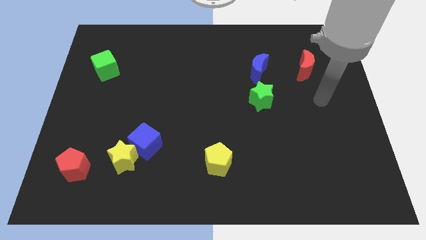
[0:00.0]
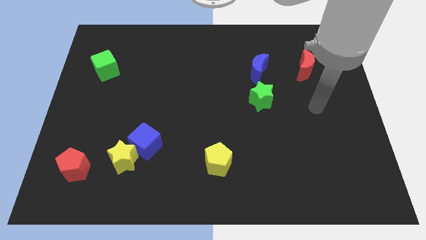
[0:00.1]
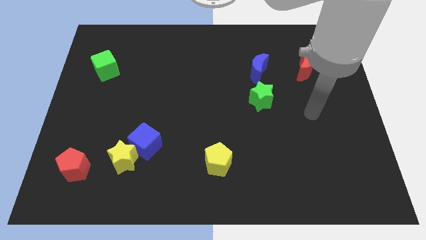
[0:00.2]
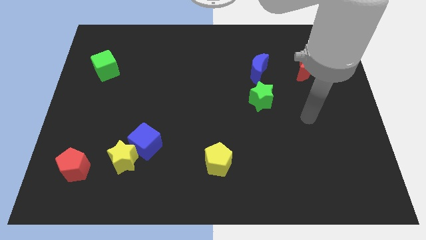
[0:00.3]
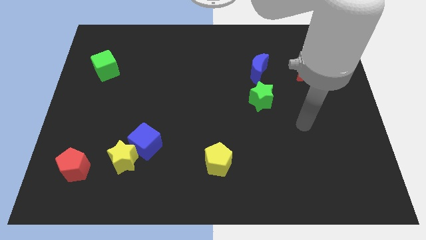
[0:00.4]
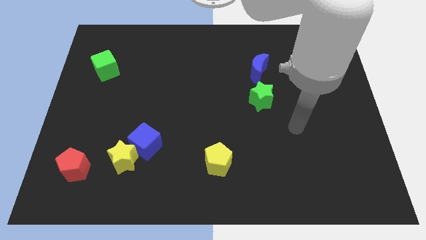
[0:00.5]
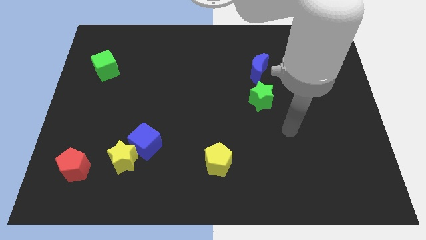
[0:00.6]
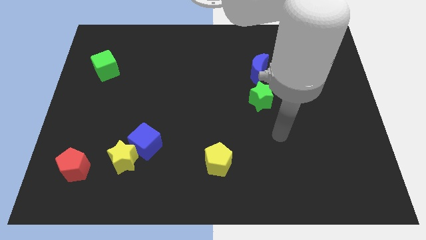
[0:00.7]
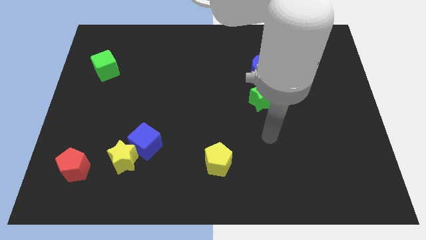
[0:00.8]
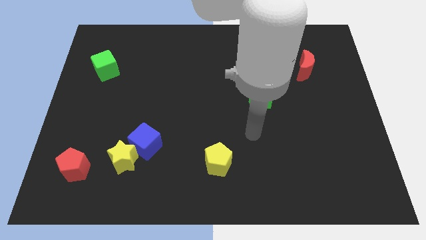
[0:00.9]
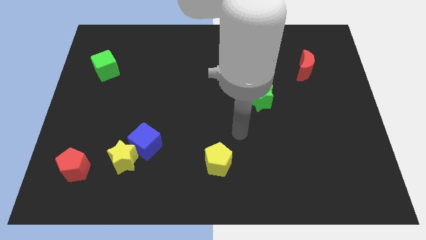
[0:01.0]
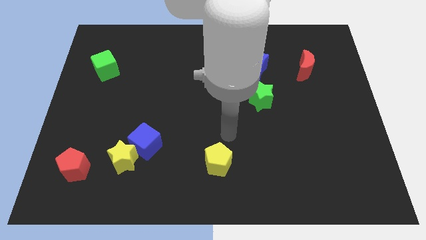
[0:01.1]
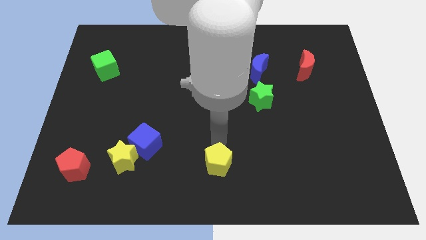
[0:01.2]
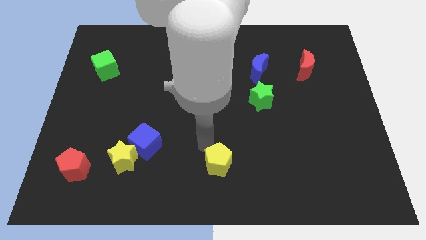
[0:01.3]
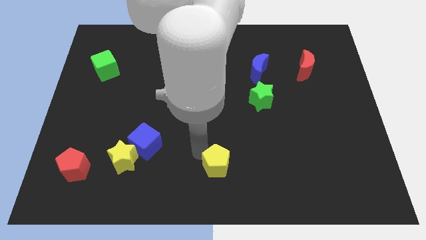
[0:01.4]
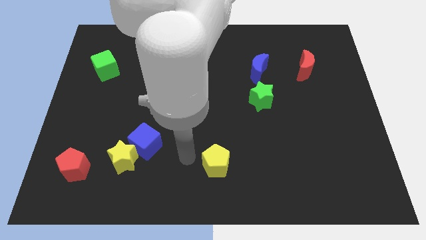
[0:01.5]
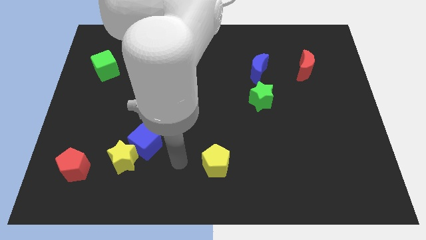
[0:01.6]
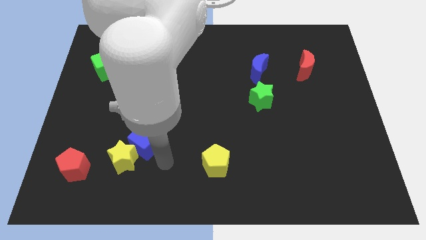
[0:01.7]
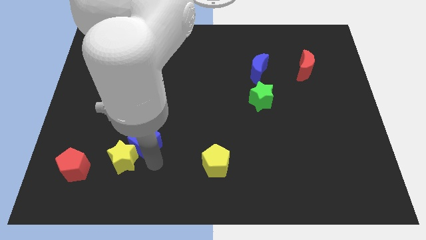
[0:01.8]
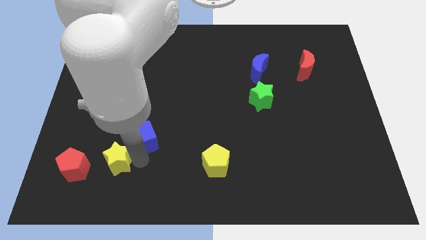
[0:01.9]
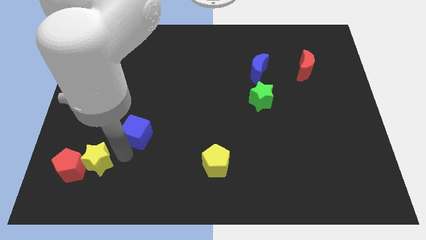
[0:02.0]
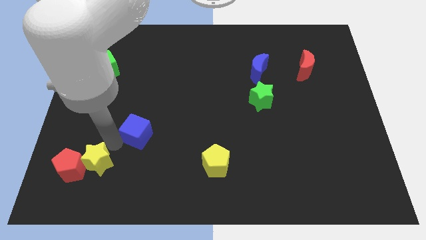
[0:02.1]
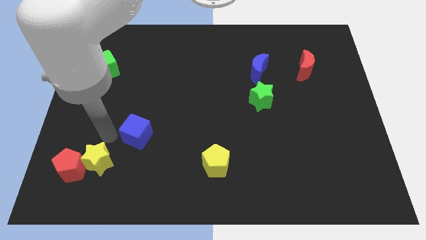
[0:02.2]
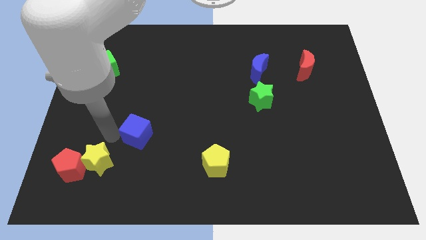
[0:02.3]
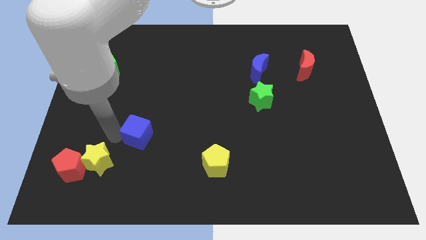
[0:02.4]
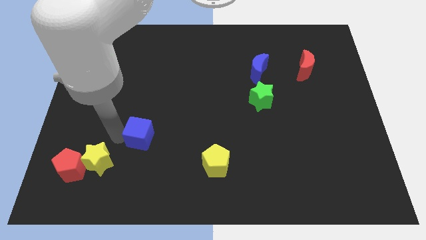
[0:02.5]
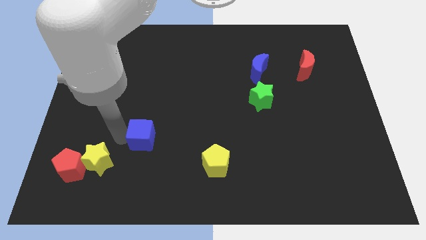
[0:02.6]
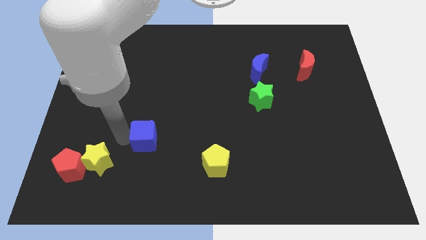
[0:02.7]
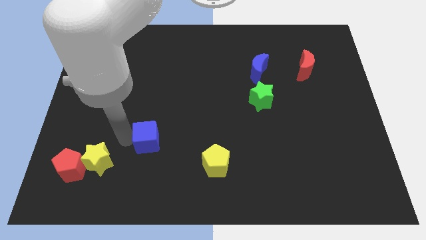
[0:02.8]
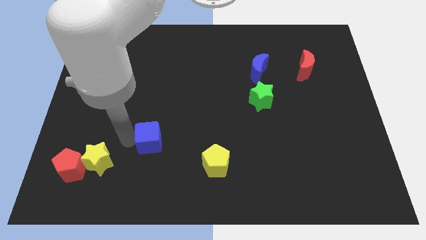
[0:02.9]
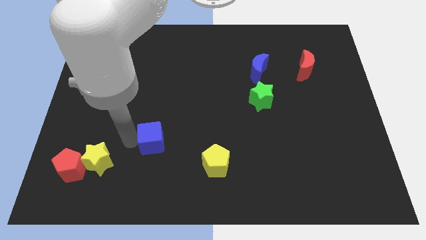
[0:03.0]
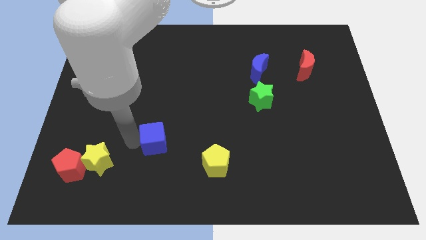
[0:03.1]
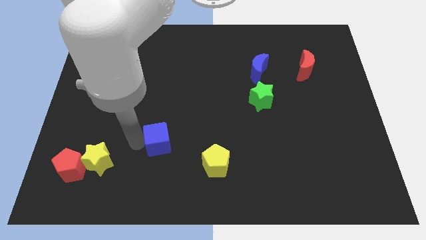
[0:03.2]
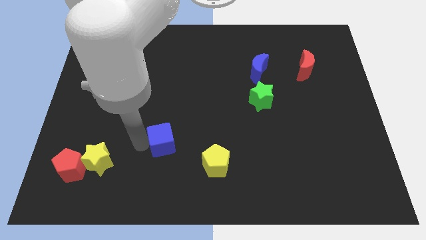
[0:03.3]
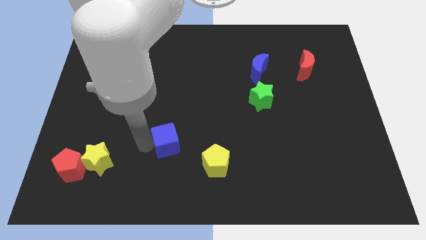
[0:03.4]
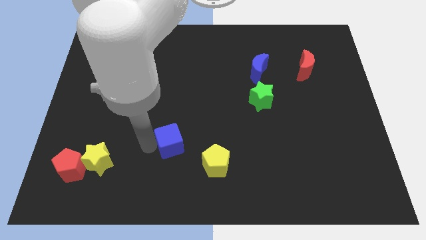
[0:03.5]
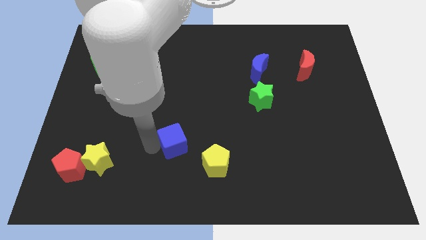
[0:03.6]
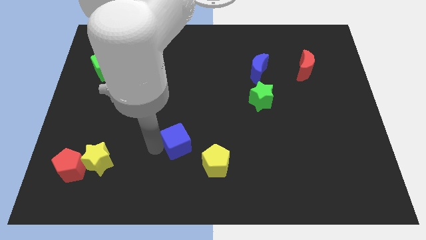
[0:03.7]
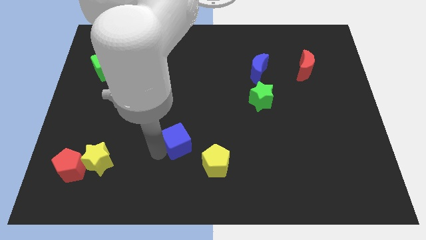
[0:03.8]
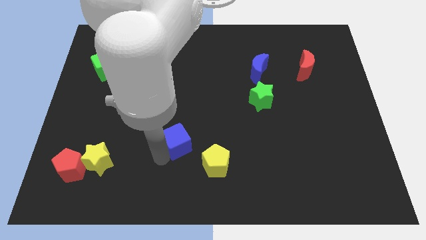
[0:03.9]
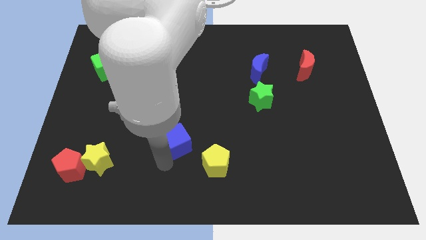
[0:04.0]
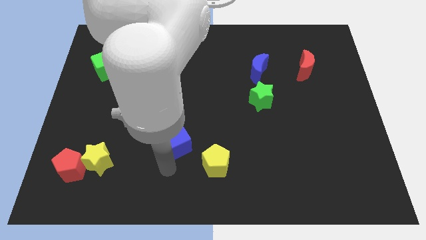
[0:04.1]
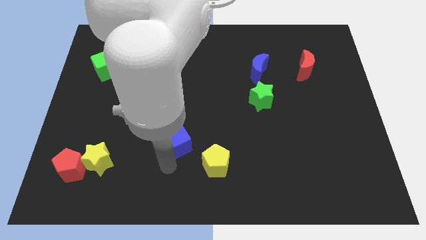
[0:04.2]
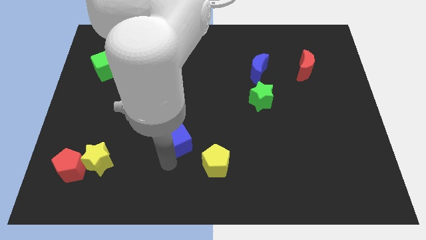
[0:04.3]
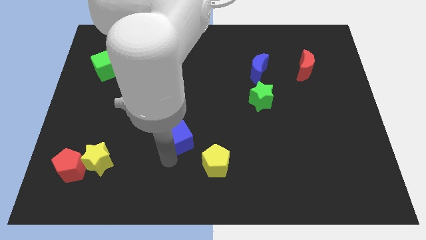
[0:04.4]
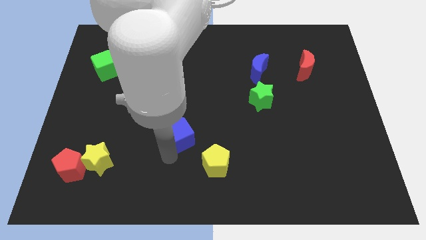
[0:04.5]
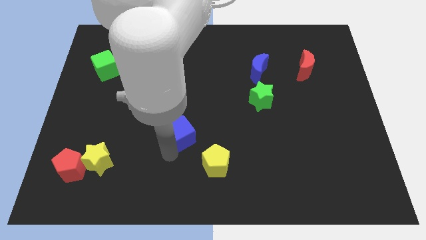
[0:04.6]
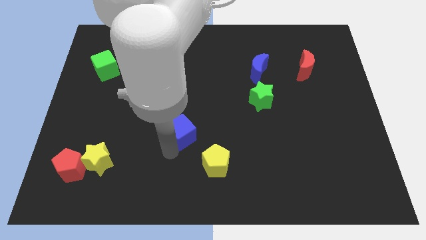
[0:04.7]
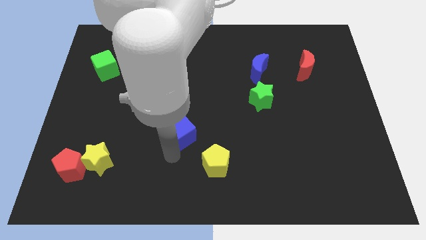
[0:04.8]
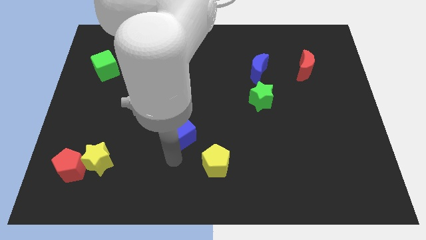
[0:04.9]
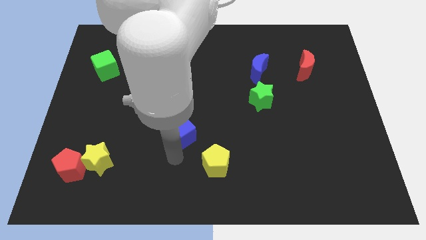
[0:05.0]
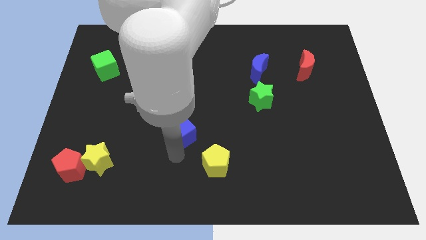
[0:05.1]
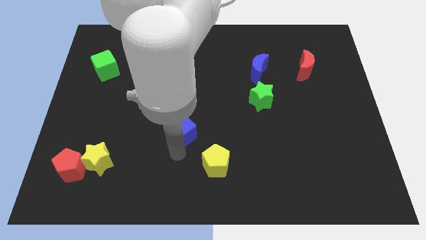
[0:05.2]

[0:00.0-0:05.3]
push the blue cube upwards and to the right a little

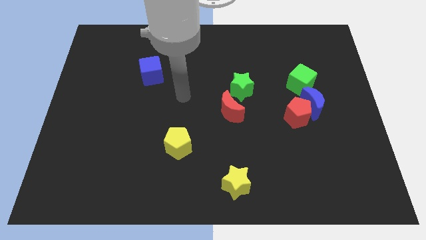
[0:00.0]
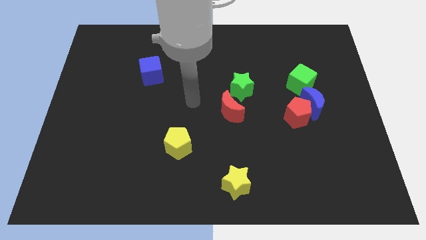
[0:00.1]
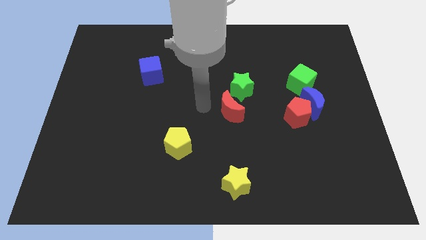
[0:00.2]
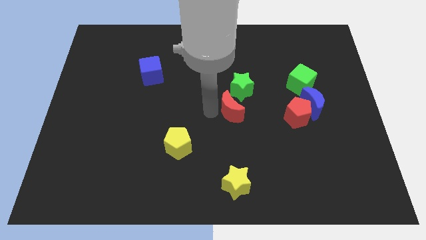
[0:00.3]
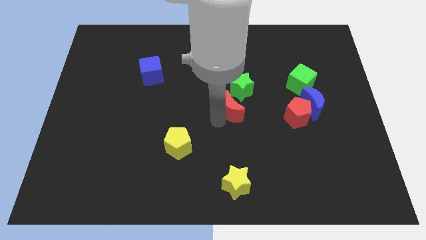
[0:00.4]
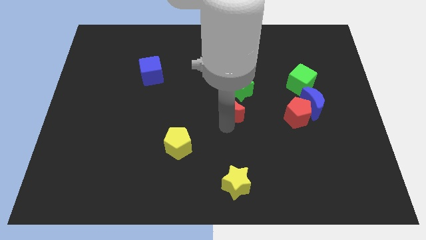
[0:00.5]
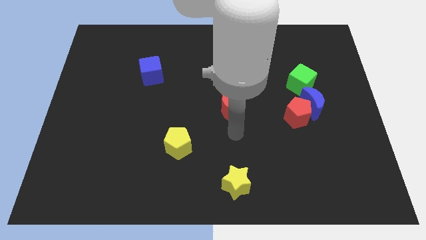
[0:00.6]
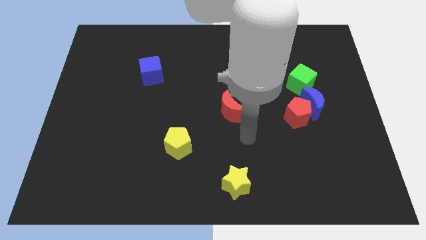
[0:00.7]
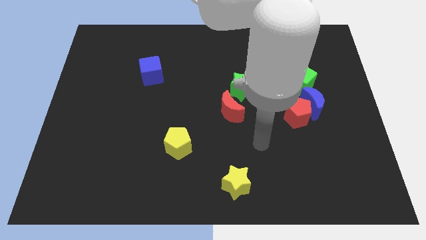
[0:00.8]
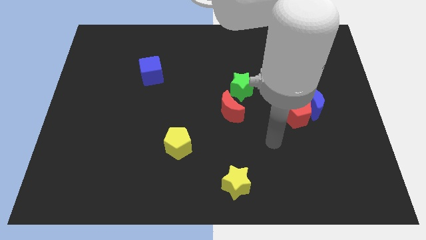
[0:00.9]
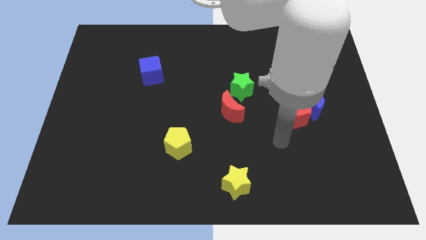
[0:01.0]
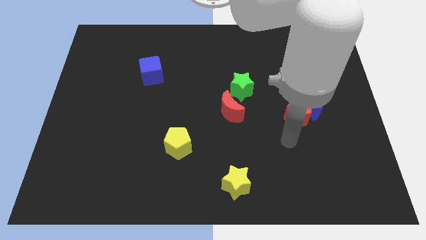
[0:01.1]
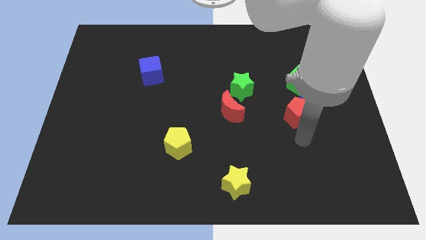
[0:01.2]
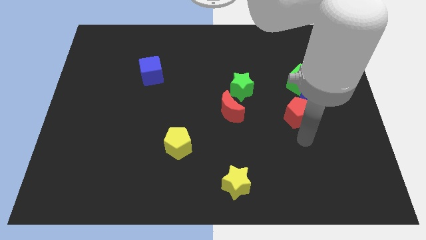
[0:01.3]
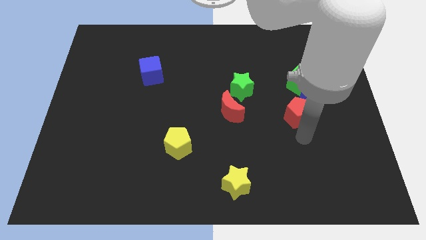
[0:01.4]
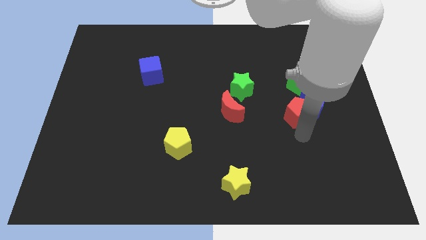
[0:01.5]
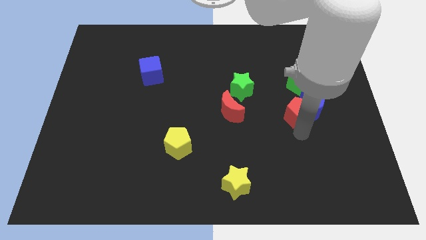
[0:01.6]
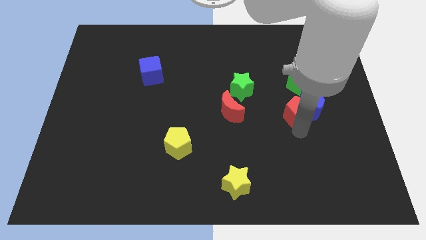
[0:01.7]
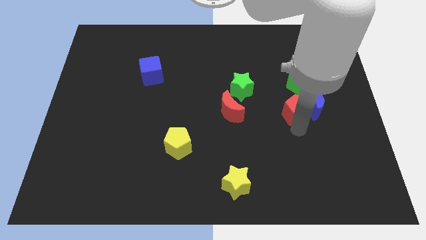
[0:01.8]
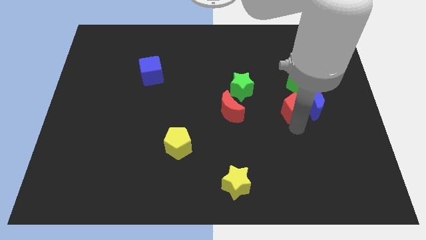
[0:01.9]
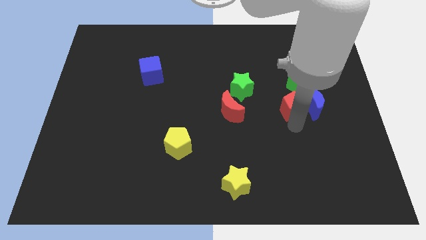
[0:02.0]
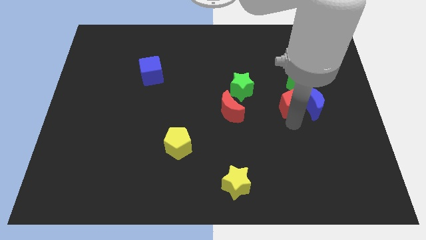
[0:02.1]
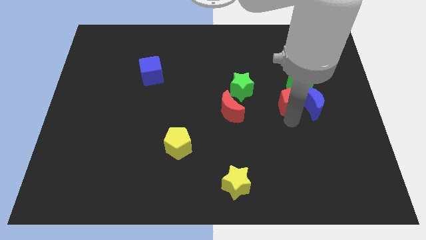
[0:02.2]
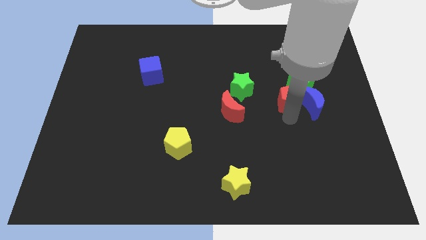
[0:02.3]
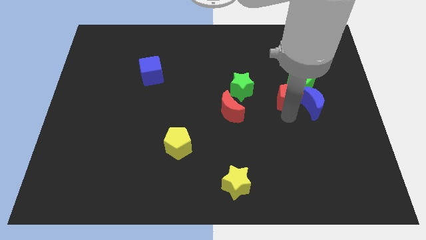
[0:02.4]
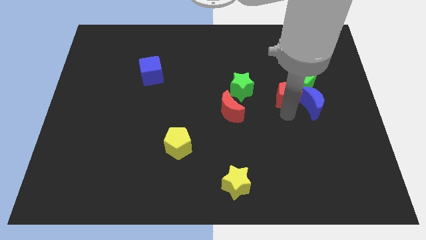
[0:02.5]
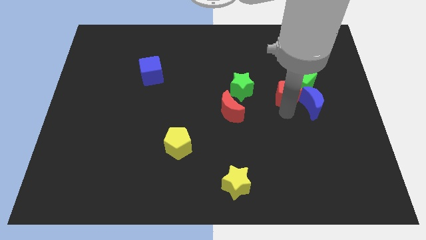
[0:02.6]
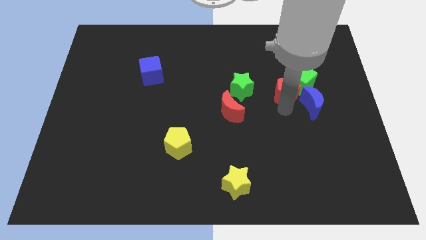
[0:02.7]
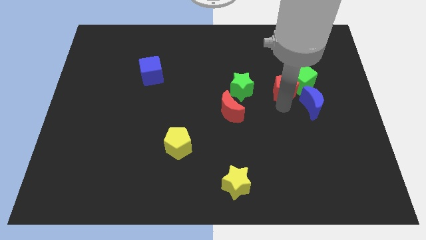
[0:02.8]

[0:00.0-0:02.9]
move the red pentagon somewhat upwards
